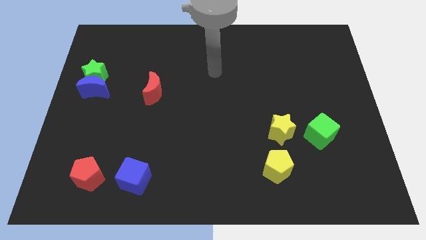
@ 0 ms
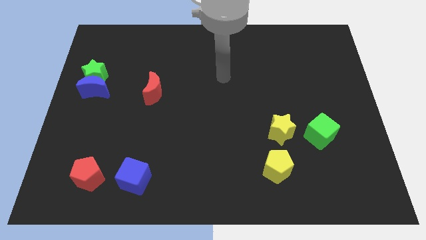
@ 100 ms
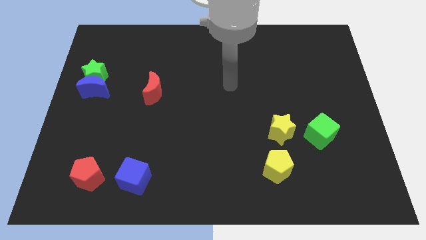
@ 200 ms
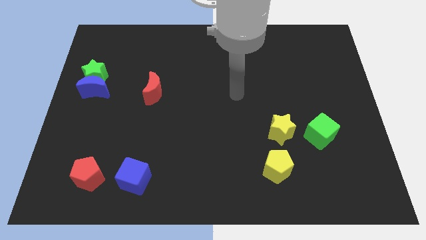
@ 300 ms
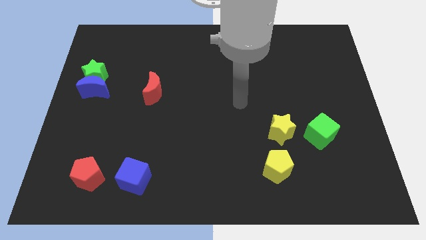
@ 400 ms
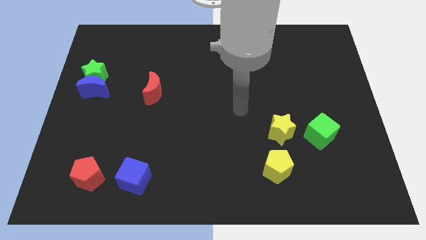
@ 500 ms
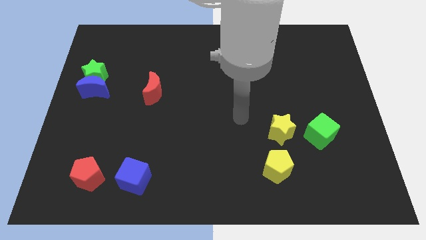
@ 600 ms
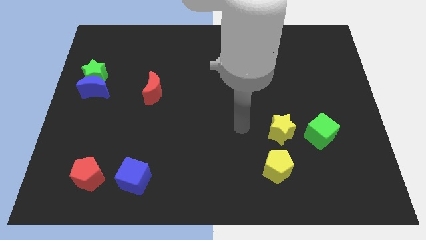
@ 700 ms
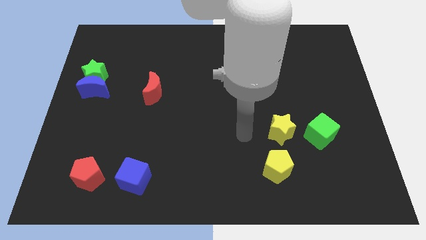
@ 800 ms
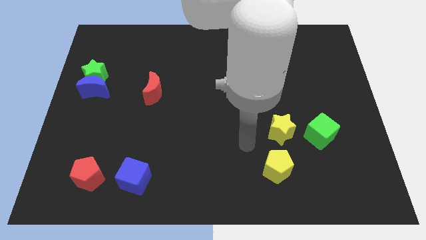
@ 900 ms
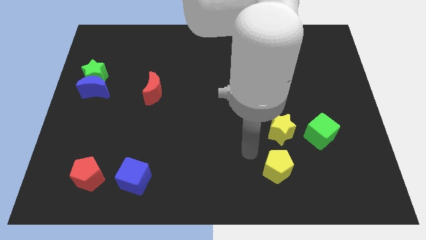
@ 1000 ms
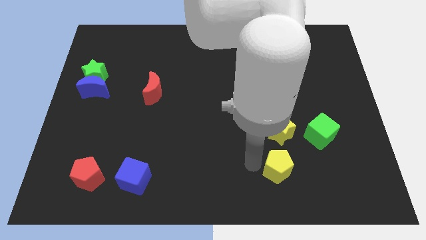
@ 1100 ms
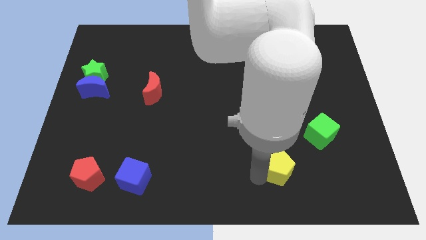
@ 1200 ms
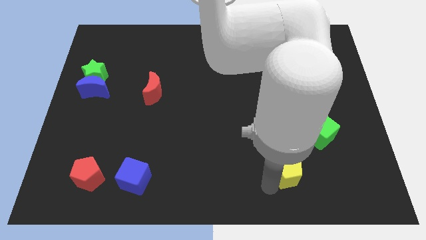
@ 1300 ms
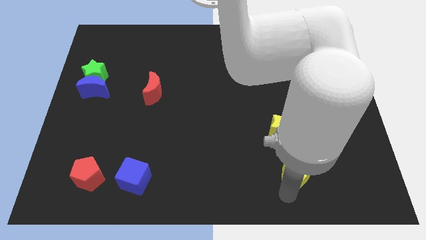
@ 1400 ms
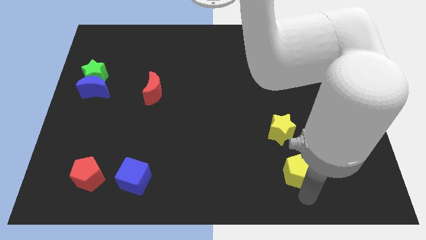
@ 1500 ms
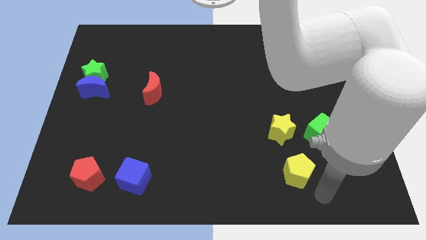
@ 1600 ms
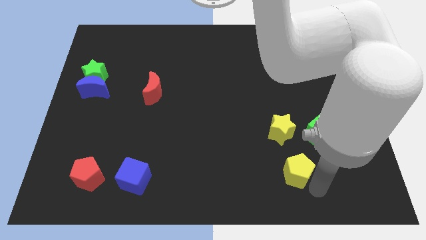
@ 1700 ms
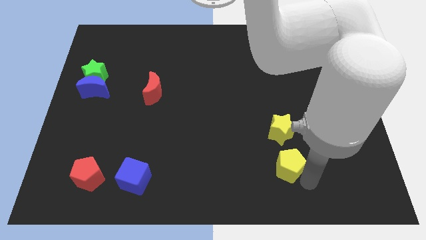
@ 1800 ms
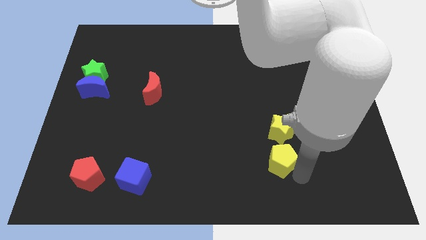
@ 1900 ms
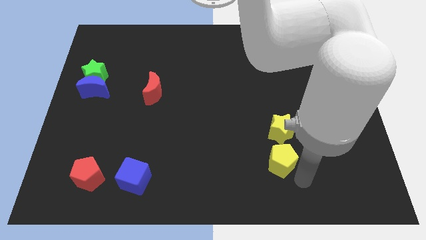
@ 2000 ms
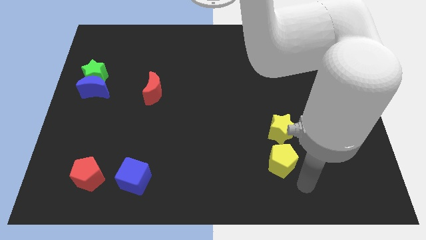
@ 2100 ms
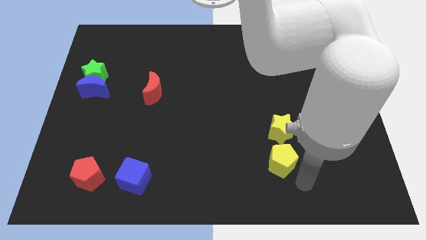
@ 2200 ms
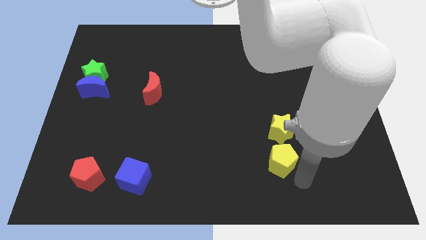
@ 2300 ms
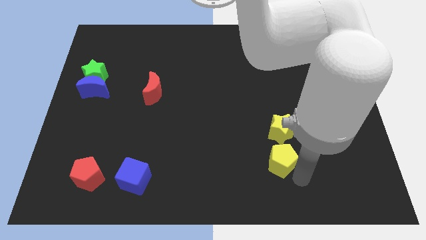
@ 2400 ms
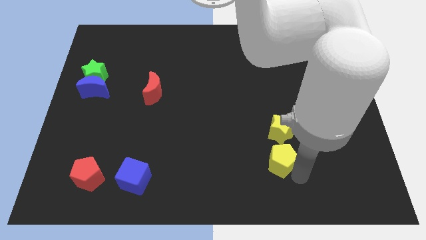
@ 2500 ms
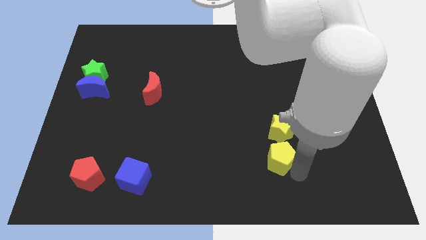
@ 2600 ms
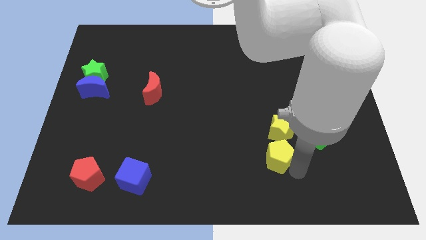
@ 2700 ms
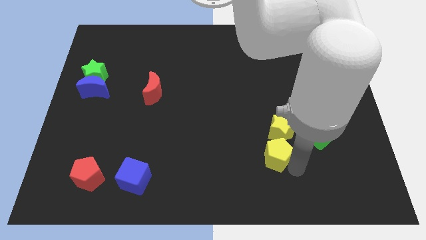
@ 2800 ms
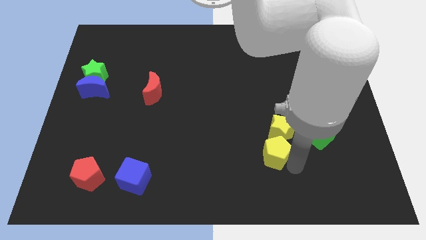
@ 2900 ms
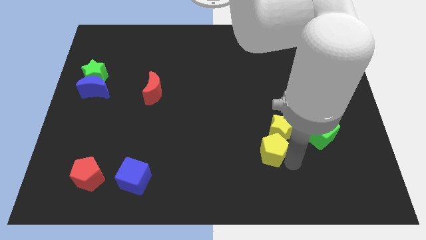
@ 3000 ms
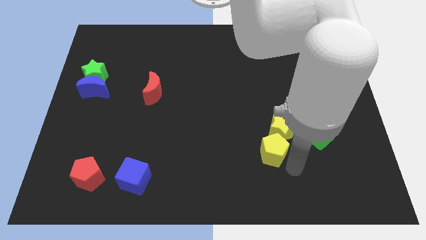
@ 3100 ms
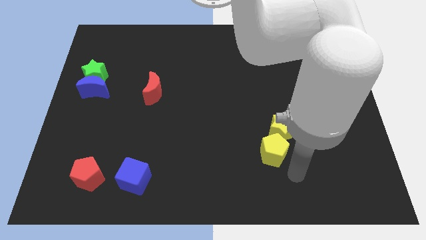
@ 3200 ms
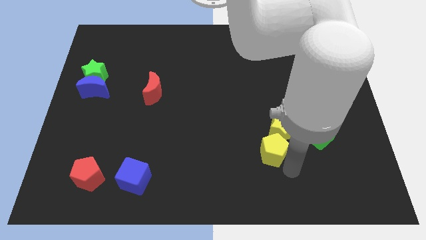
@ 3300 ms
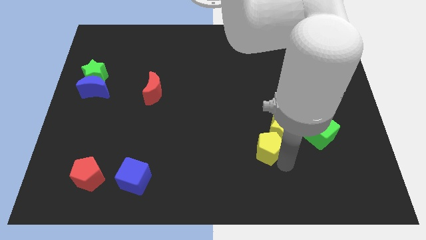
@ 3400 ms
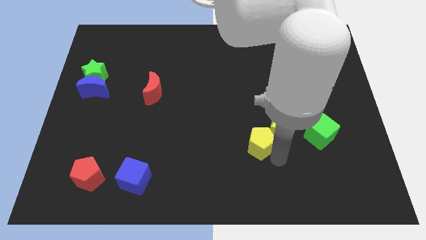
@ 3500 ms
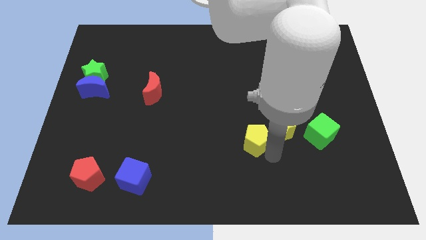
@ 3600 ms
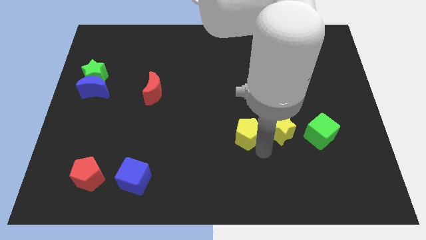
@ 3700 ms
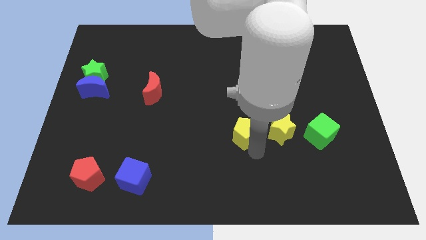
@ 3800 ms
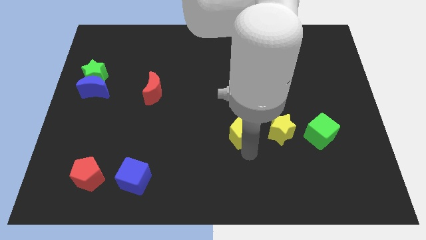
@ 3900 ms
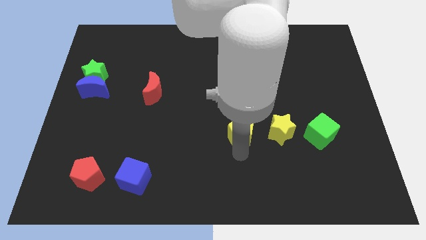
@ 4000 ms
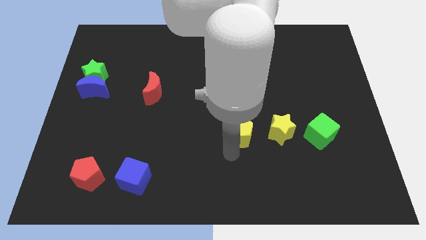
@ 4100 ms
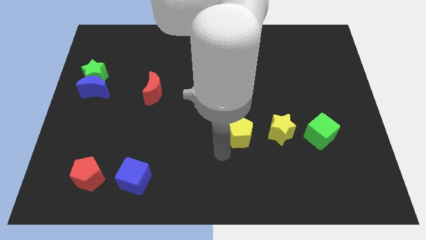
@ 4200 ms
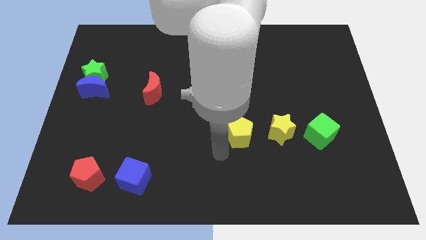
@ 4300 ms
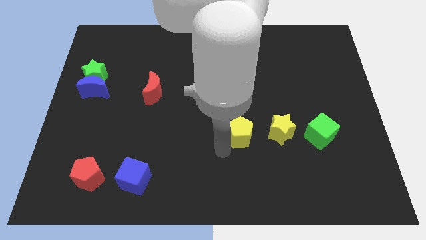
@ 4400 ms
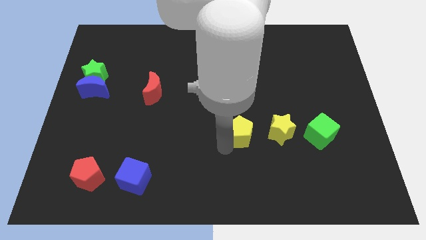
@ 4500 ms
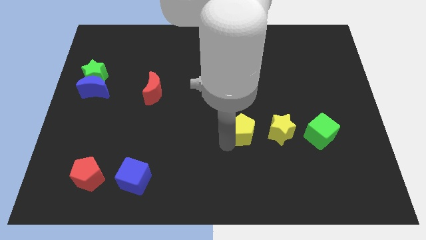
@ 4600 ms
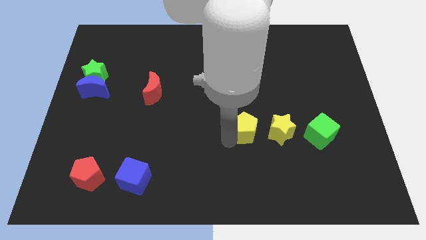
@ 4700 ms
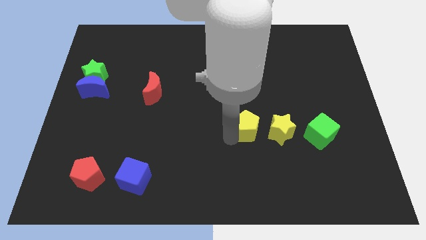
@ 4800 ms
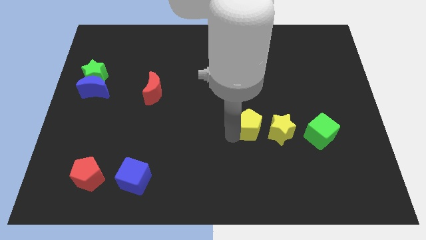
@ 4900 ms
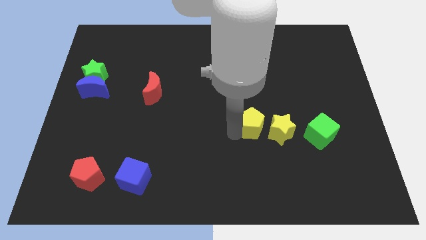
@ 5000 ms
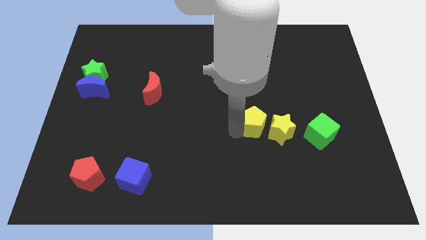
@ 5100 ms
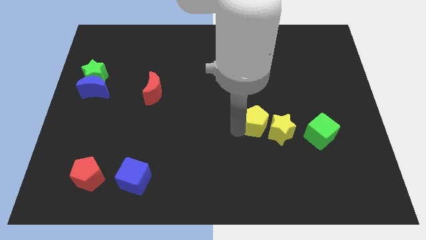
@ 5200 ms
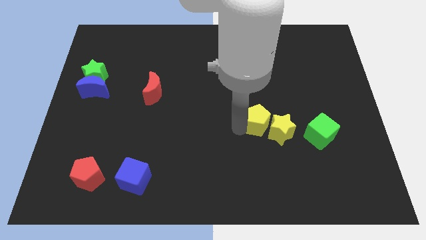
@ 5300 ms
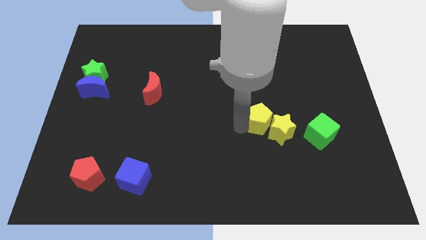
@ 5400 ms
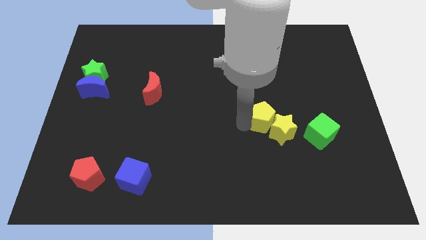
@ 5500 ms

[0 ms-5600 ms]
move the yellow pentagon to the top of the yellow star
